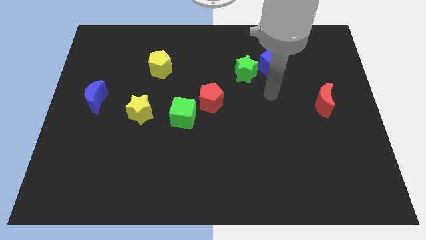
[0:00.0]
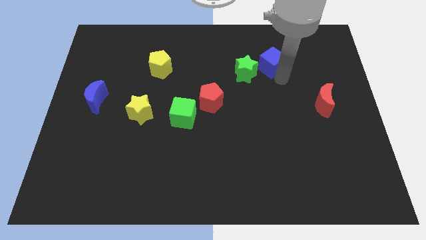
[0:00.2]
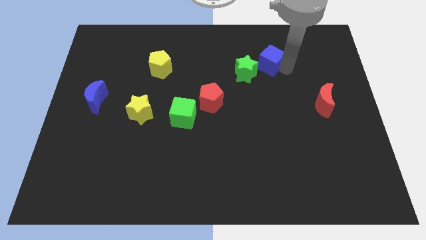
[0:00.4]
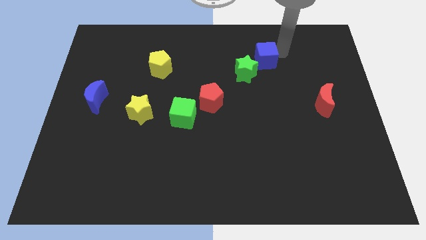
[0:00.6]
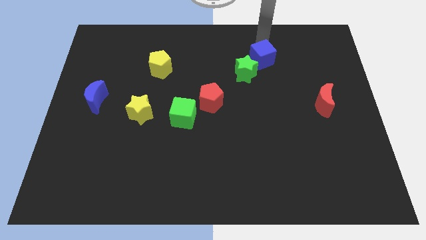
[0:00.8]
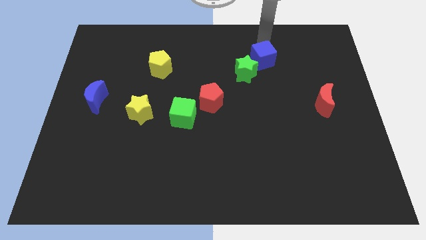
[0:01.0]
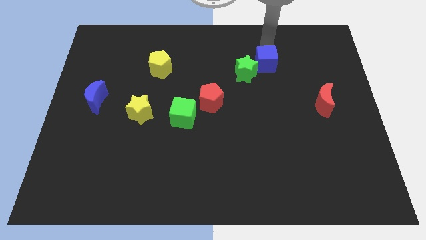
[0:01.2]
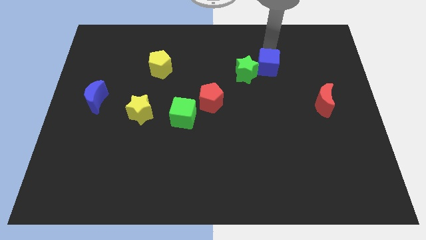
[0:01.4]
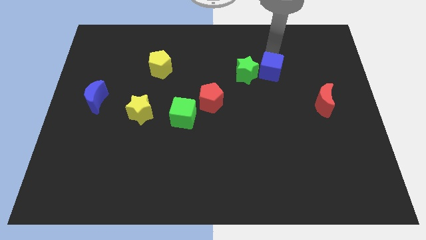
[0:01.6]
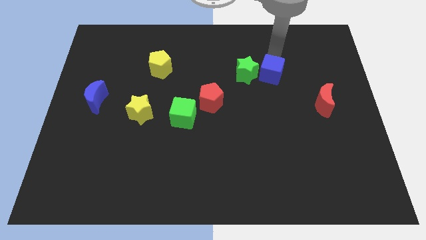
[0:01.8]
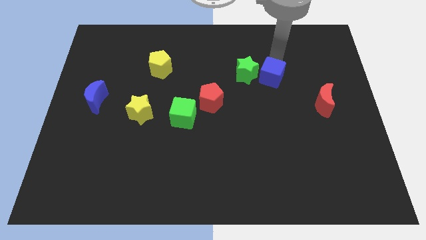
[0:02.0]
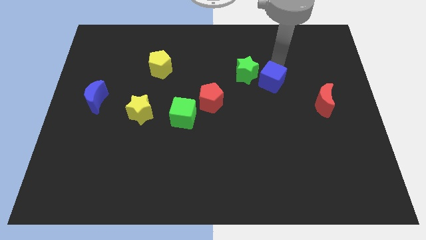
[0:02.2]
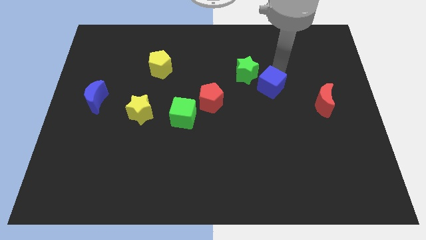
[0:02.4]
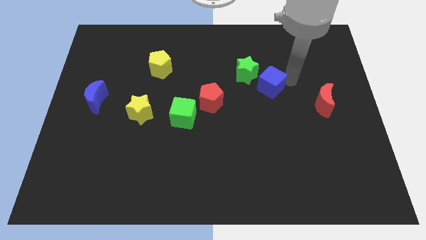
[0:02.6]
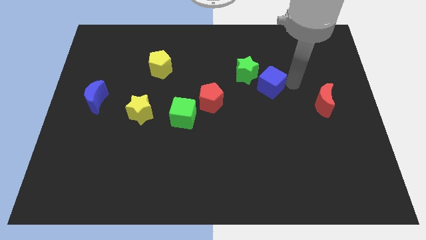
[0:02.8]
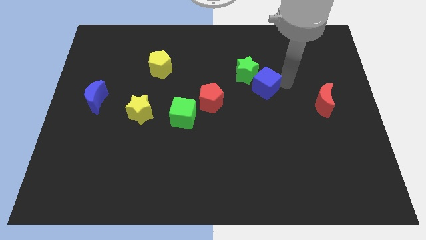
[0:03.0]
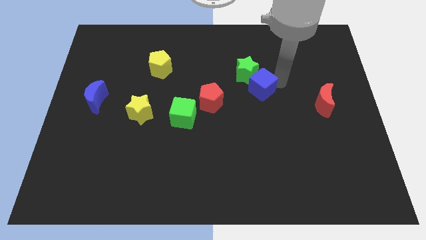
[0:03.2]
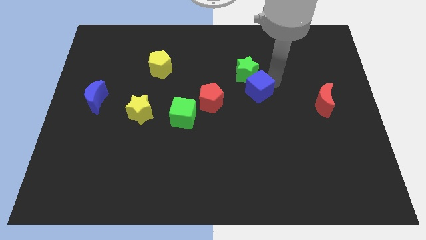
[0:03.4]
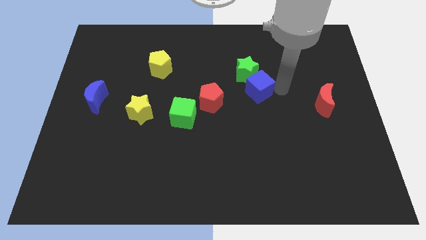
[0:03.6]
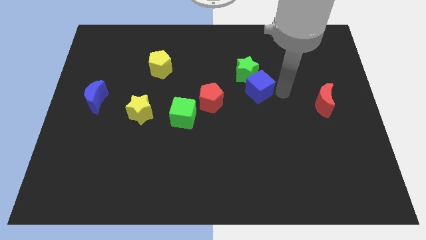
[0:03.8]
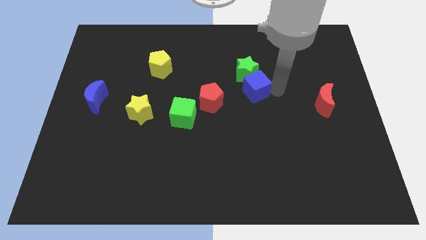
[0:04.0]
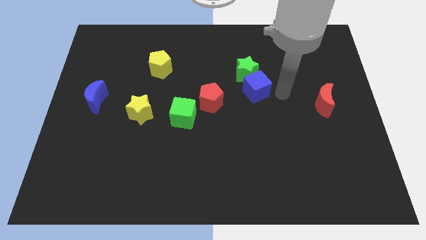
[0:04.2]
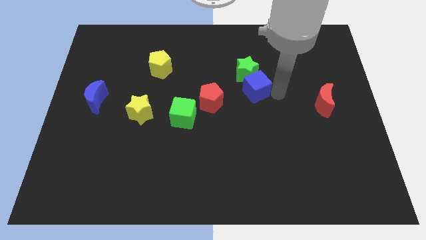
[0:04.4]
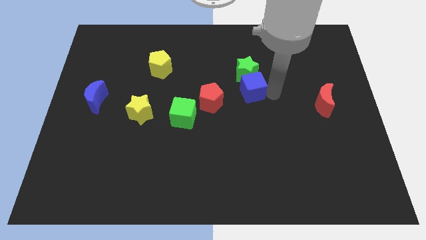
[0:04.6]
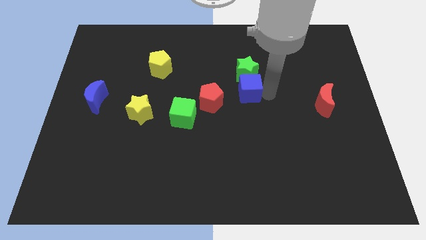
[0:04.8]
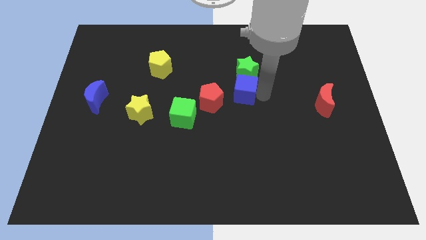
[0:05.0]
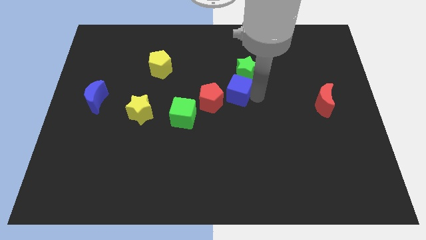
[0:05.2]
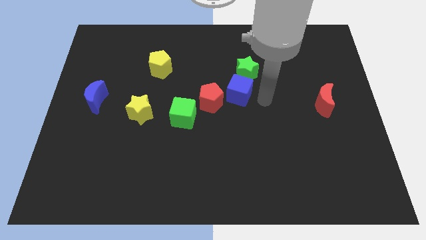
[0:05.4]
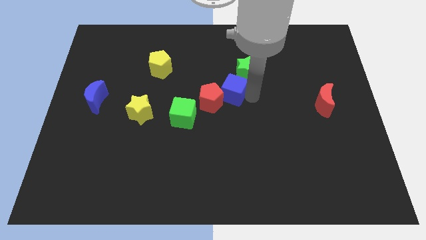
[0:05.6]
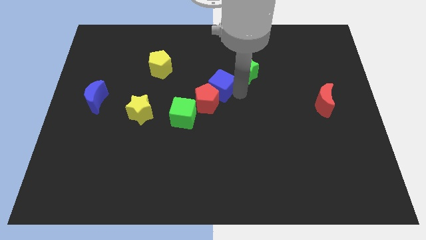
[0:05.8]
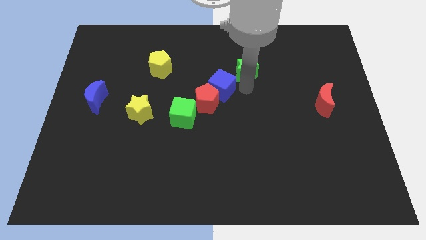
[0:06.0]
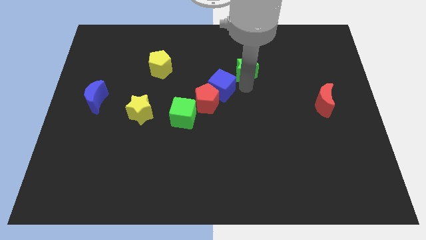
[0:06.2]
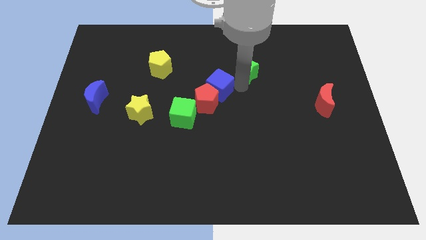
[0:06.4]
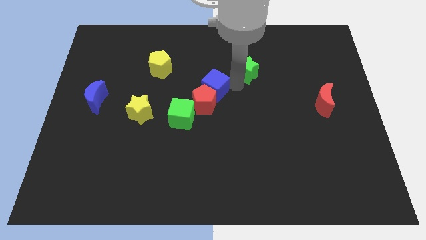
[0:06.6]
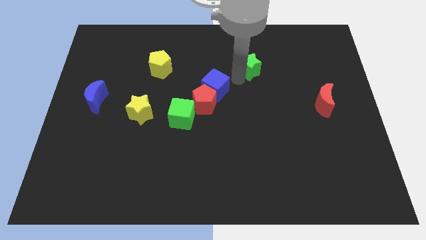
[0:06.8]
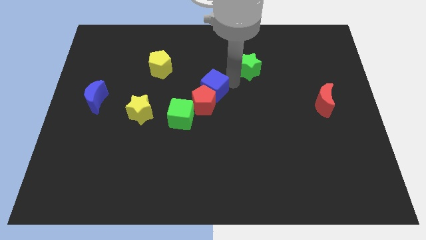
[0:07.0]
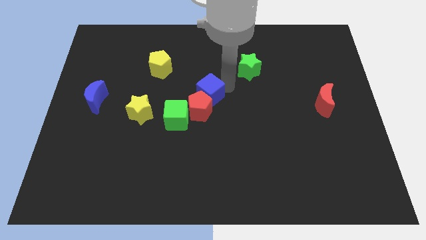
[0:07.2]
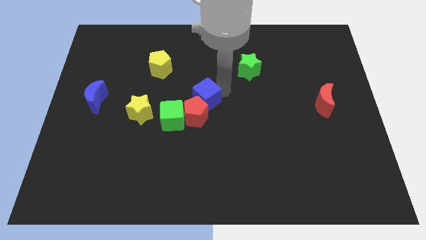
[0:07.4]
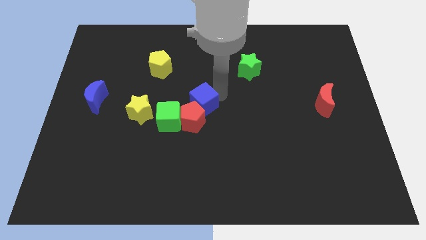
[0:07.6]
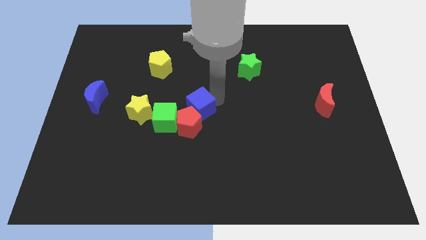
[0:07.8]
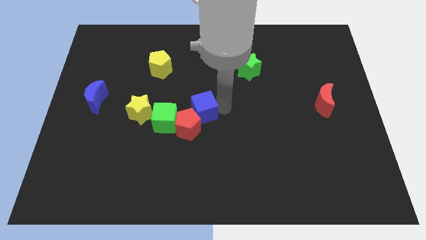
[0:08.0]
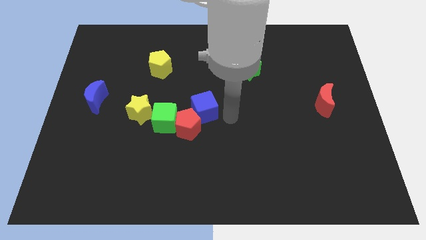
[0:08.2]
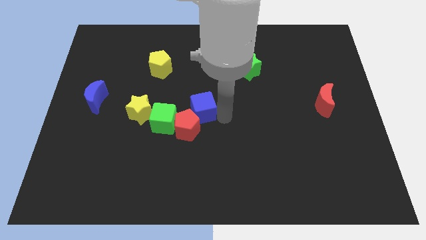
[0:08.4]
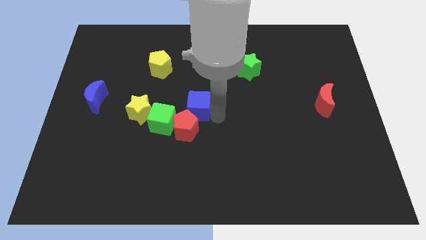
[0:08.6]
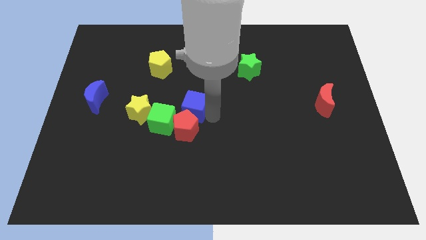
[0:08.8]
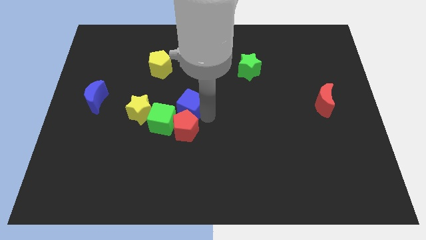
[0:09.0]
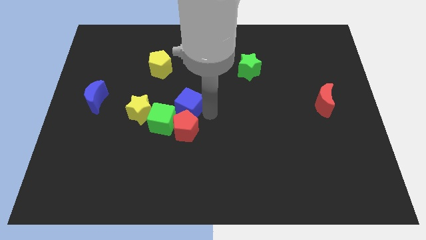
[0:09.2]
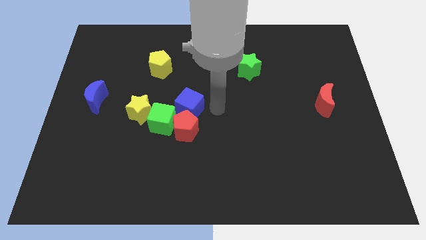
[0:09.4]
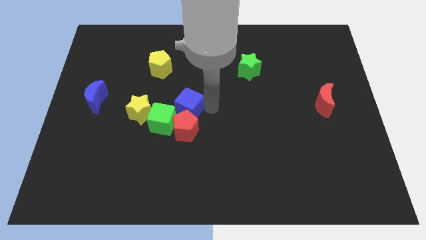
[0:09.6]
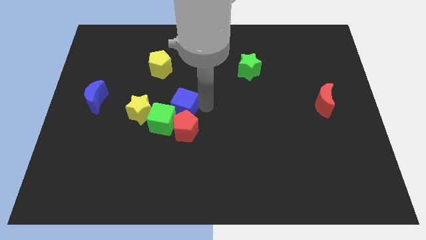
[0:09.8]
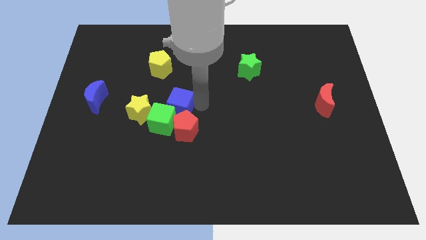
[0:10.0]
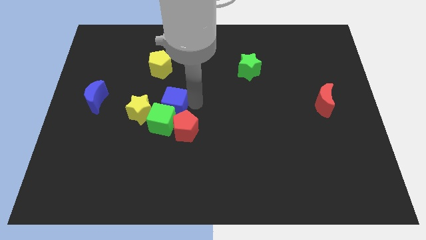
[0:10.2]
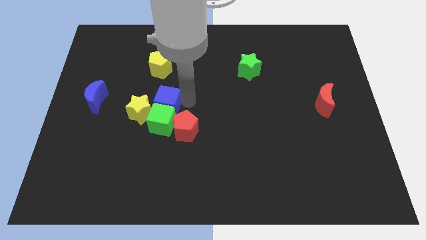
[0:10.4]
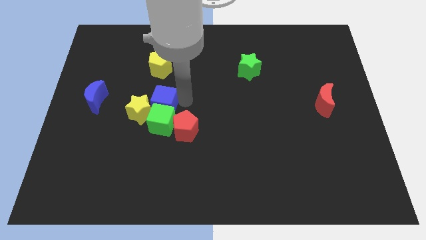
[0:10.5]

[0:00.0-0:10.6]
move the blue cube to the yellow star

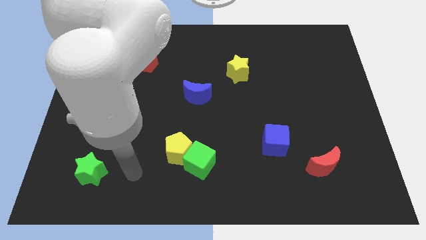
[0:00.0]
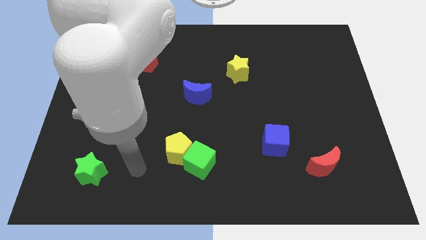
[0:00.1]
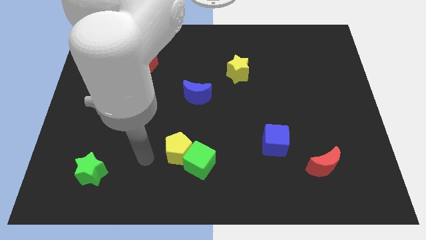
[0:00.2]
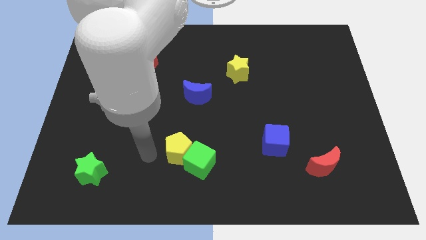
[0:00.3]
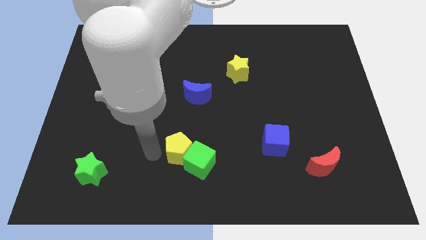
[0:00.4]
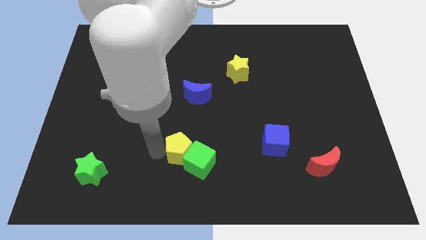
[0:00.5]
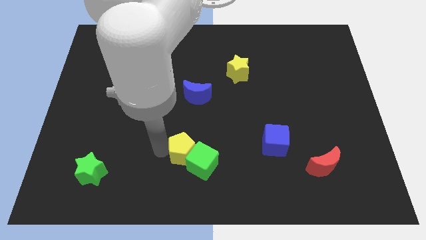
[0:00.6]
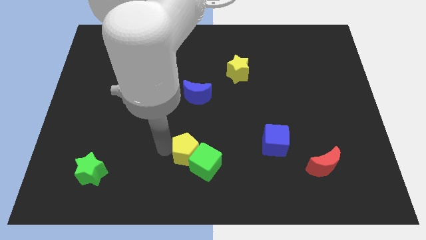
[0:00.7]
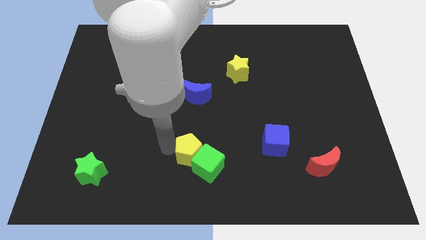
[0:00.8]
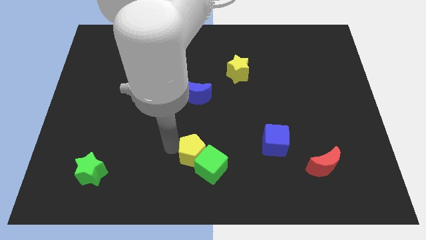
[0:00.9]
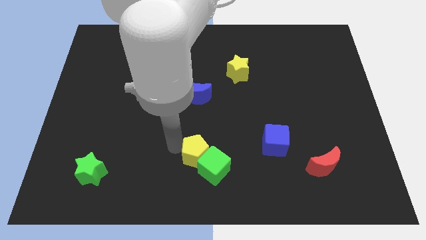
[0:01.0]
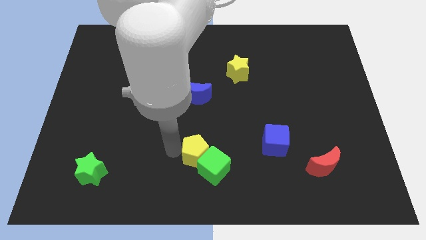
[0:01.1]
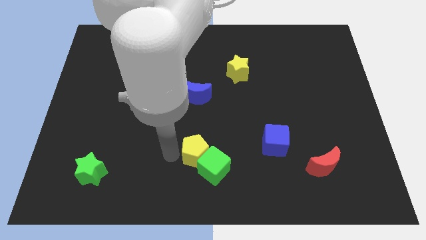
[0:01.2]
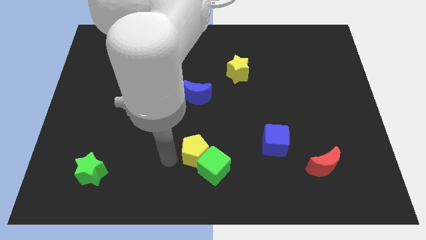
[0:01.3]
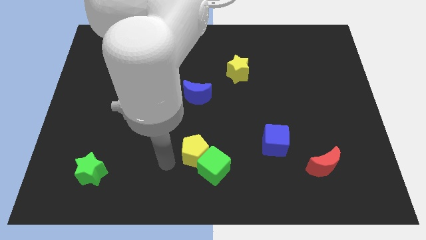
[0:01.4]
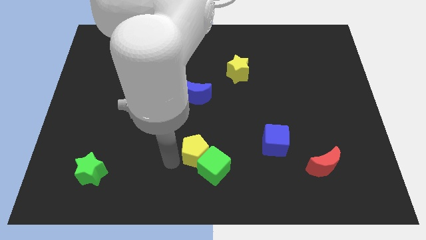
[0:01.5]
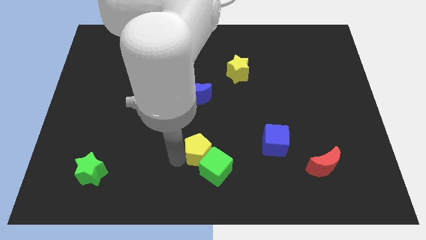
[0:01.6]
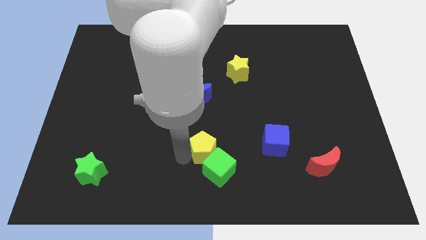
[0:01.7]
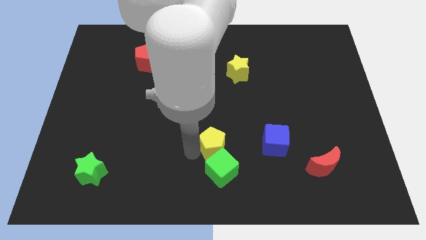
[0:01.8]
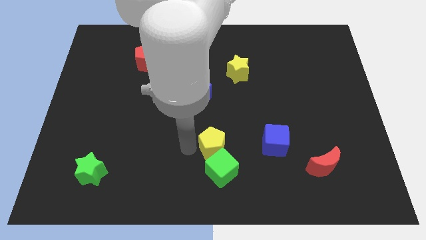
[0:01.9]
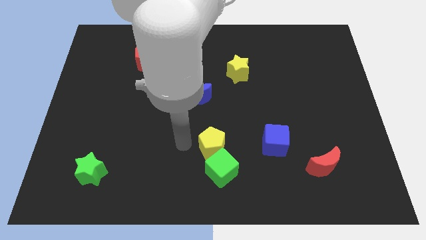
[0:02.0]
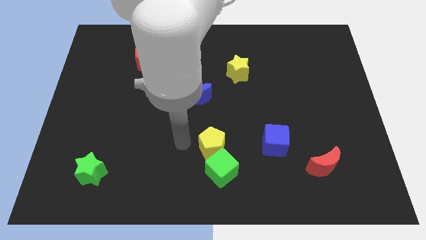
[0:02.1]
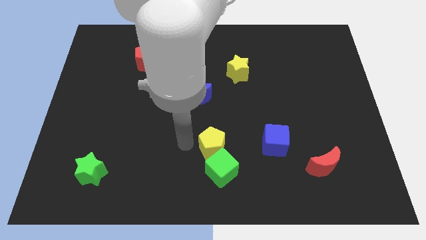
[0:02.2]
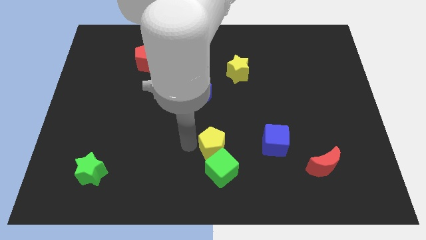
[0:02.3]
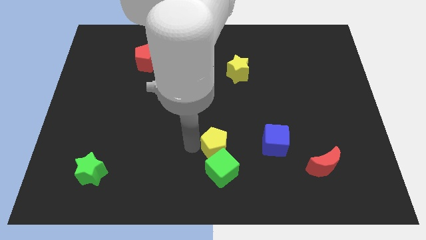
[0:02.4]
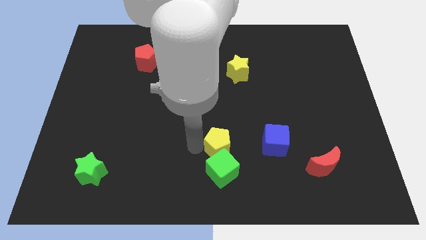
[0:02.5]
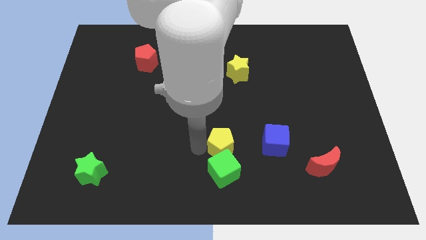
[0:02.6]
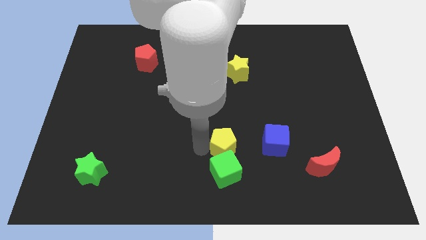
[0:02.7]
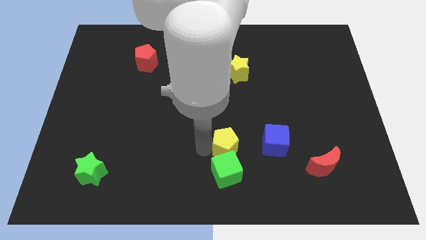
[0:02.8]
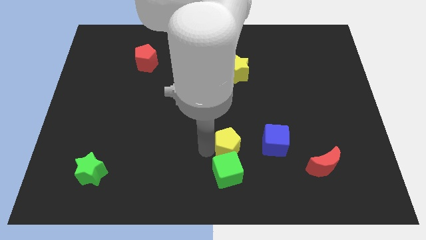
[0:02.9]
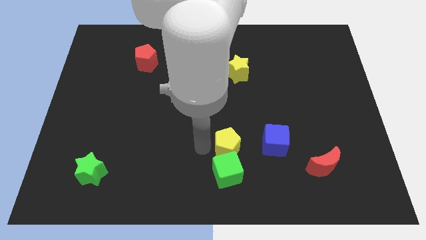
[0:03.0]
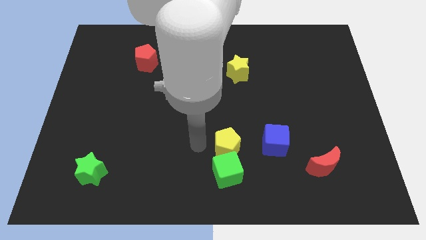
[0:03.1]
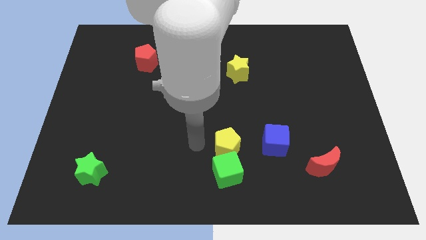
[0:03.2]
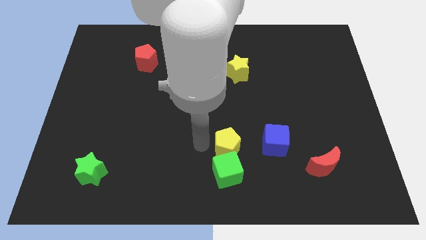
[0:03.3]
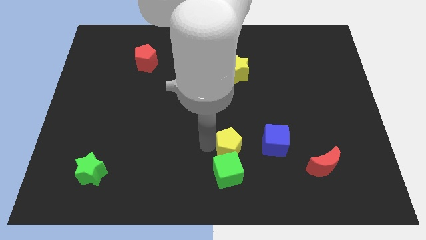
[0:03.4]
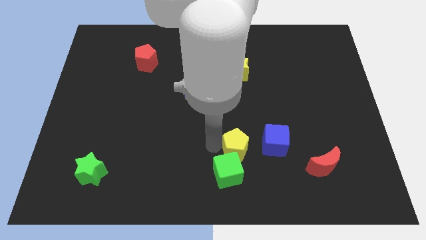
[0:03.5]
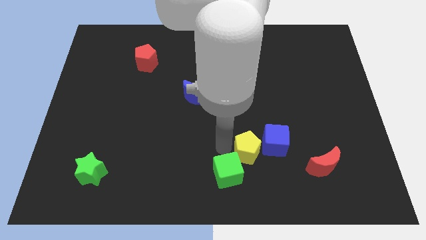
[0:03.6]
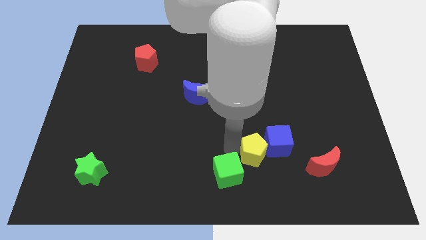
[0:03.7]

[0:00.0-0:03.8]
move the yellow pentagon towards the blue cube
